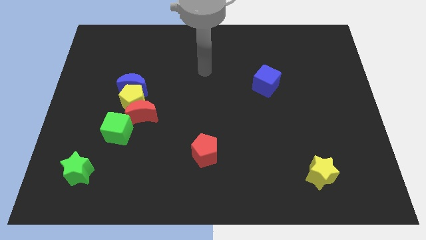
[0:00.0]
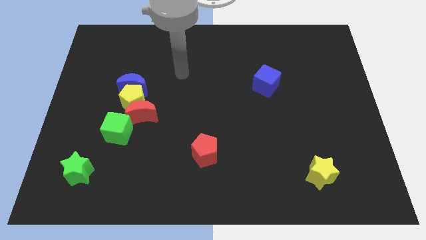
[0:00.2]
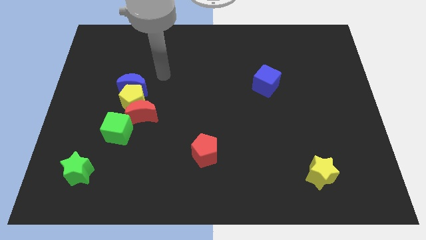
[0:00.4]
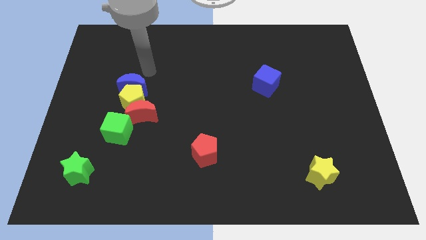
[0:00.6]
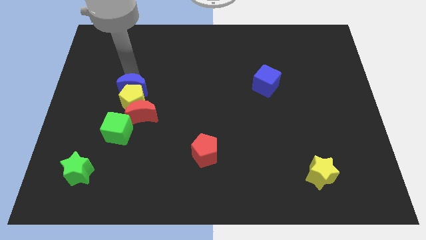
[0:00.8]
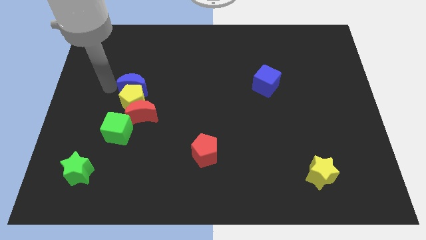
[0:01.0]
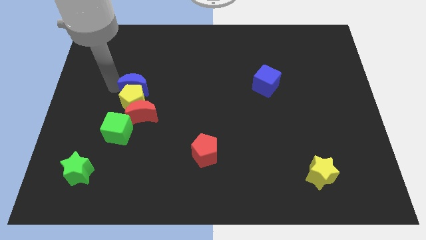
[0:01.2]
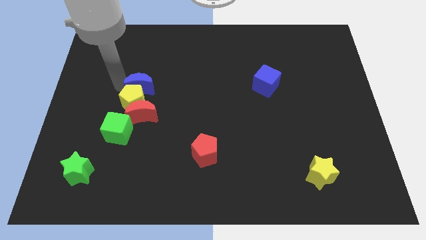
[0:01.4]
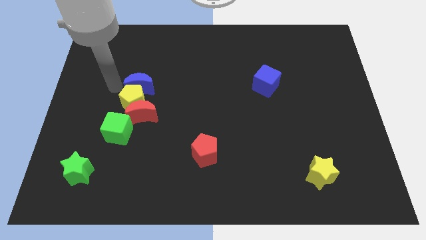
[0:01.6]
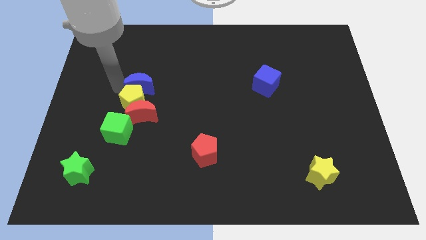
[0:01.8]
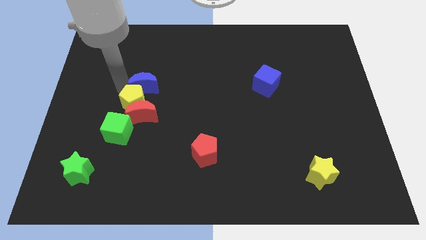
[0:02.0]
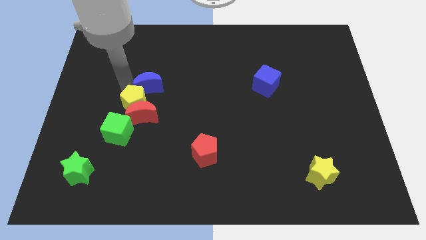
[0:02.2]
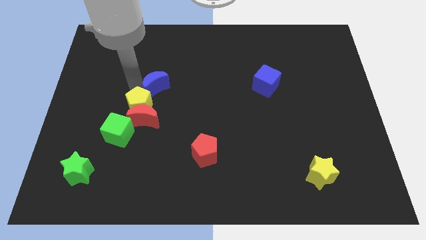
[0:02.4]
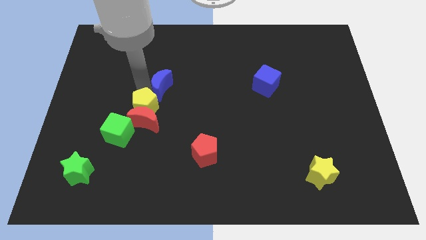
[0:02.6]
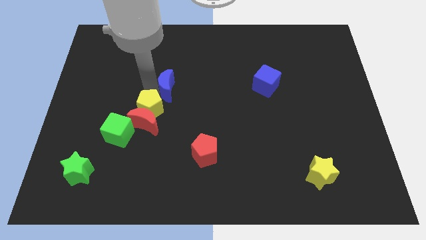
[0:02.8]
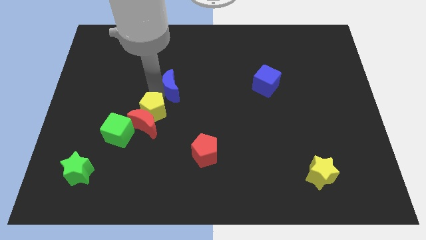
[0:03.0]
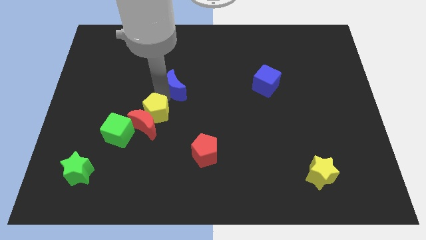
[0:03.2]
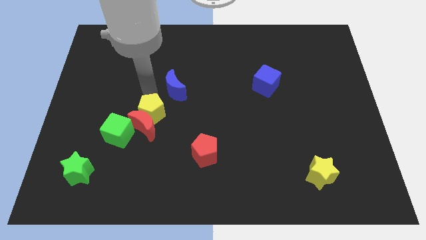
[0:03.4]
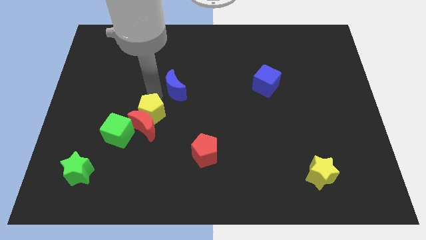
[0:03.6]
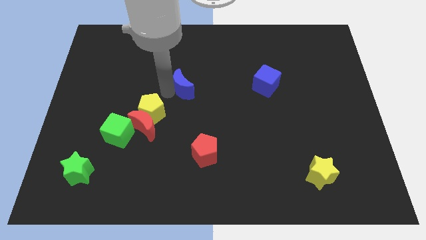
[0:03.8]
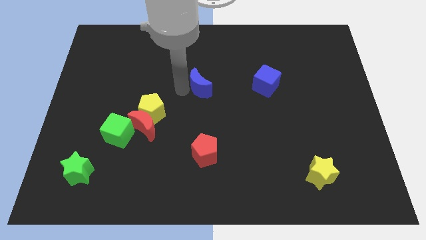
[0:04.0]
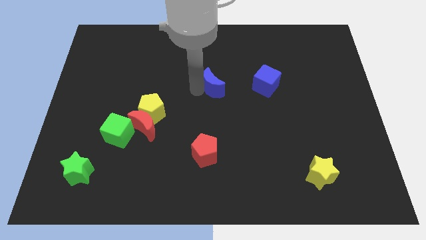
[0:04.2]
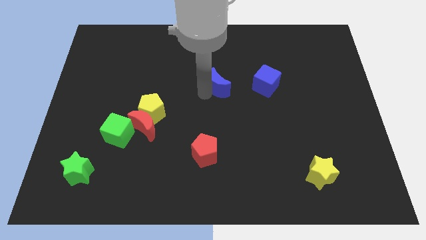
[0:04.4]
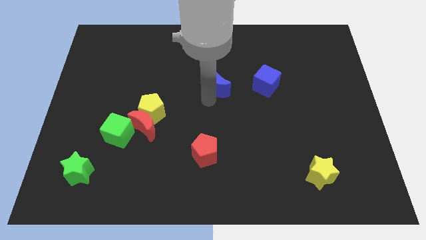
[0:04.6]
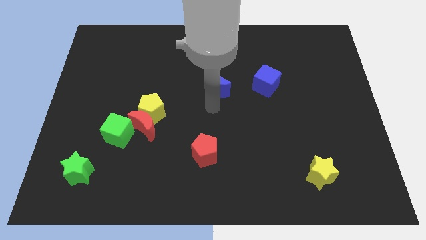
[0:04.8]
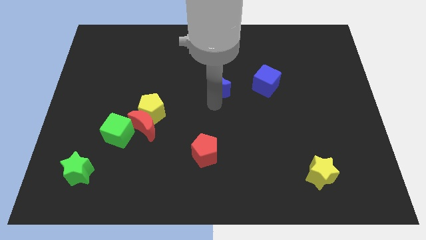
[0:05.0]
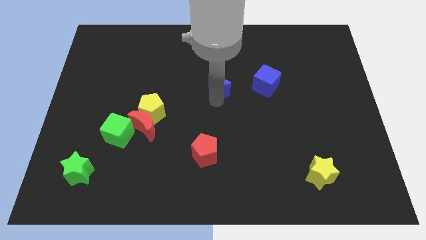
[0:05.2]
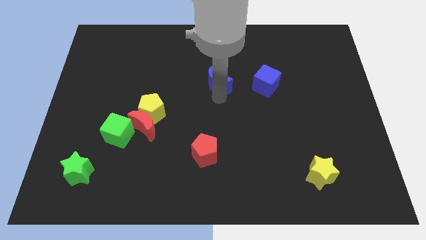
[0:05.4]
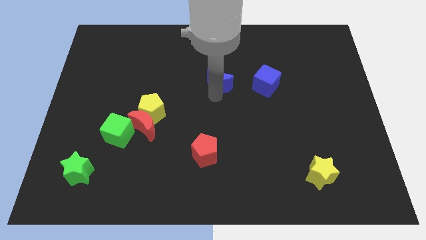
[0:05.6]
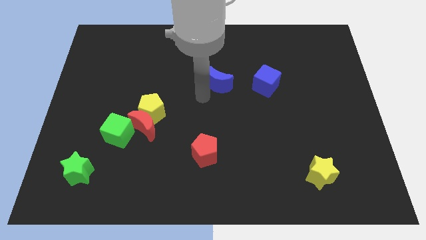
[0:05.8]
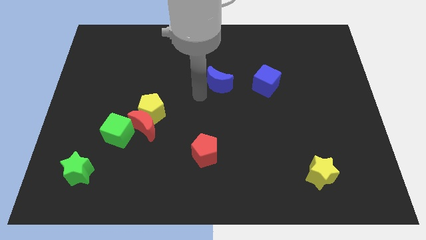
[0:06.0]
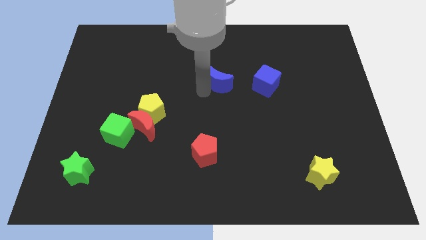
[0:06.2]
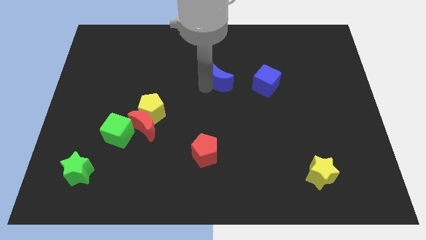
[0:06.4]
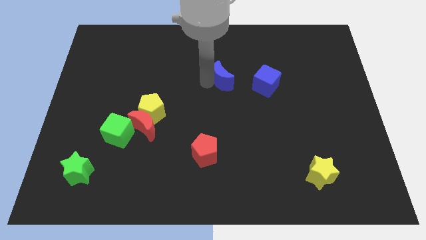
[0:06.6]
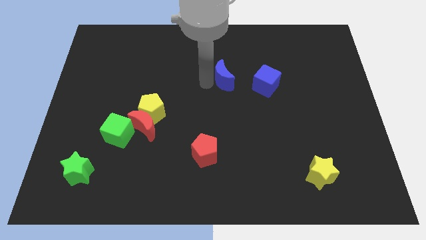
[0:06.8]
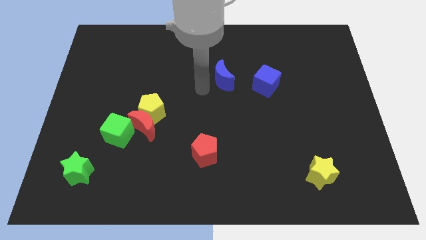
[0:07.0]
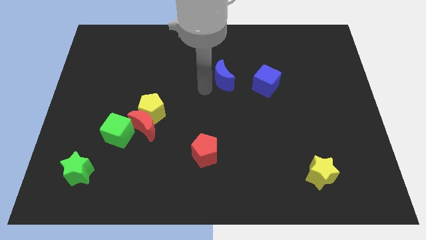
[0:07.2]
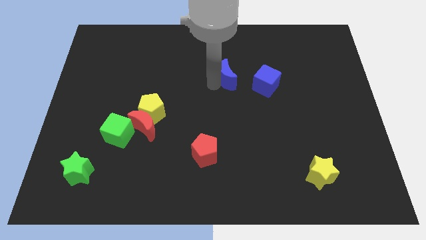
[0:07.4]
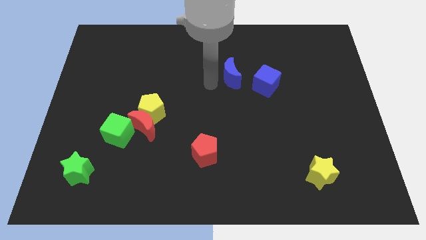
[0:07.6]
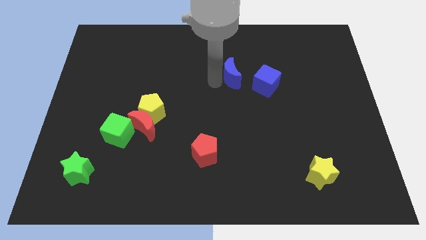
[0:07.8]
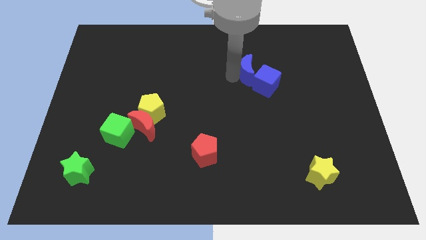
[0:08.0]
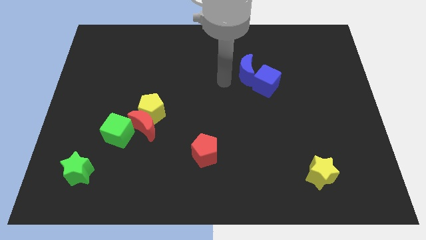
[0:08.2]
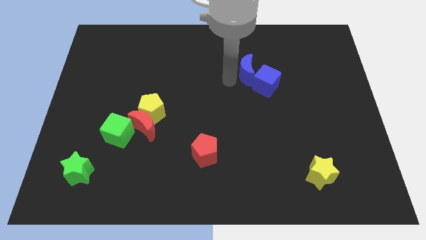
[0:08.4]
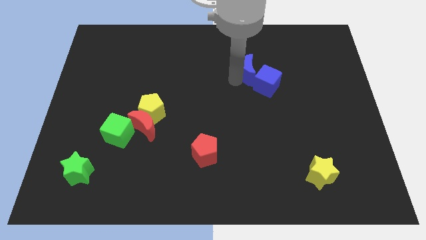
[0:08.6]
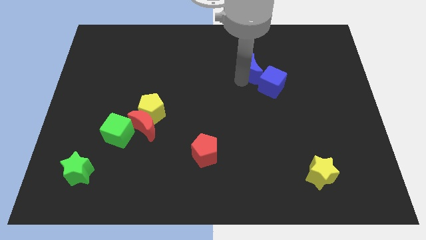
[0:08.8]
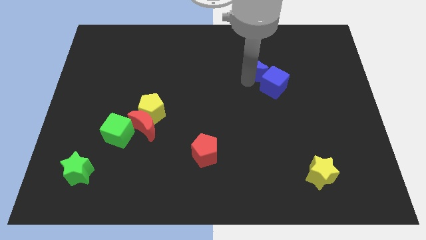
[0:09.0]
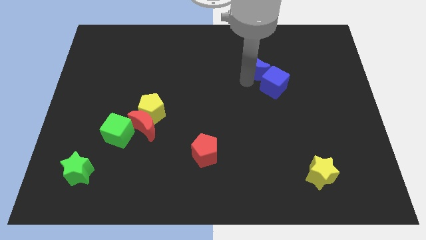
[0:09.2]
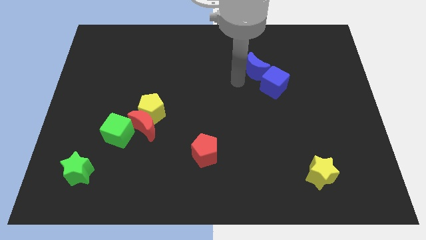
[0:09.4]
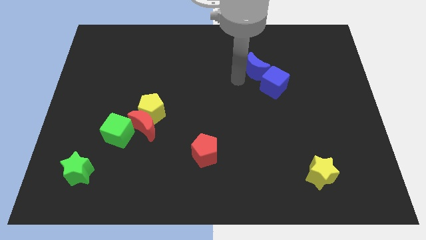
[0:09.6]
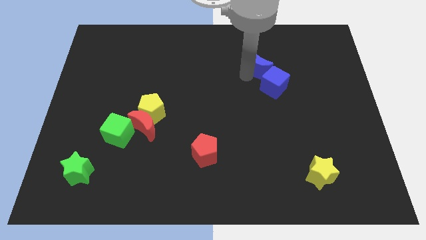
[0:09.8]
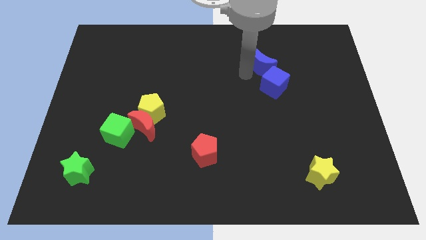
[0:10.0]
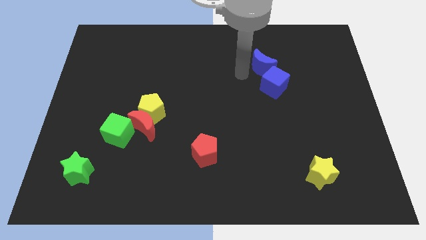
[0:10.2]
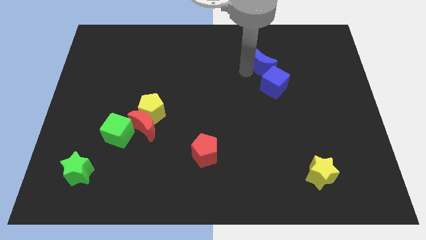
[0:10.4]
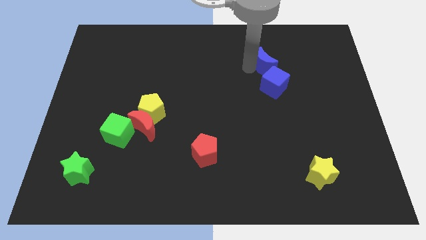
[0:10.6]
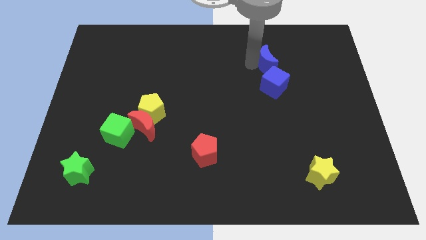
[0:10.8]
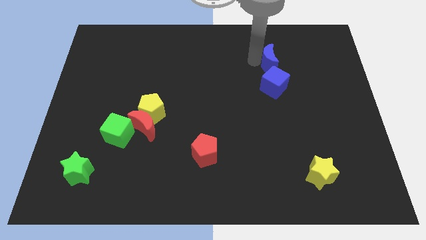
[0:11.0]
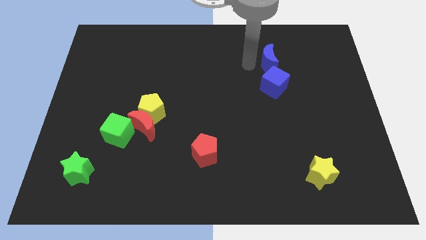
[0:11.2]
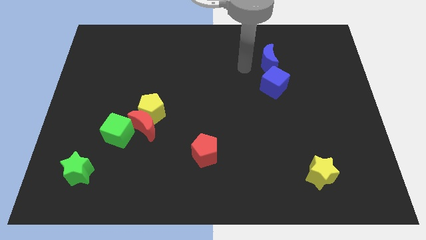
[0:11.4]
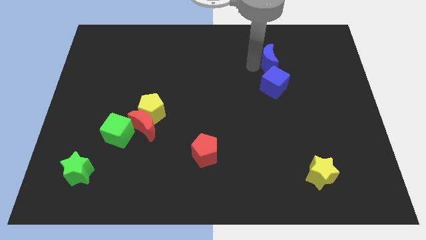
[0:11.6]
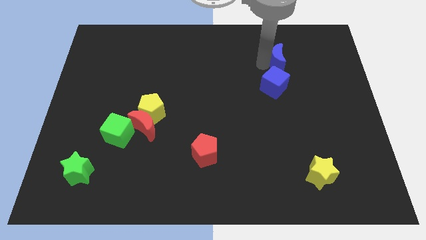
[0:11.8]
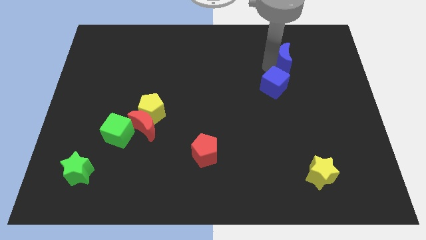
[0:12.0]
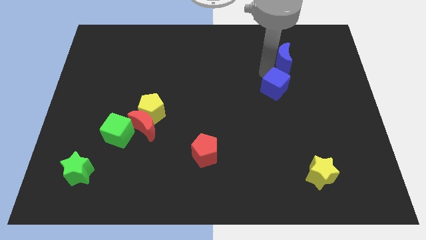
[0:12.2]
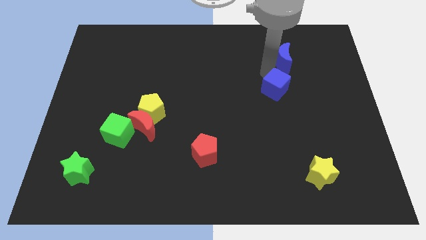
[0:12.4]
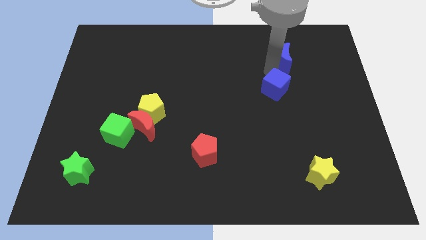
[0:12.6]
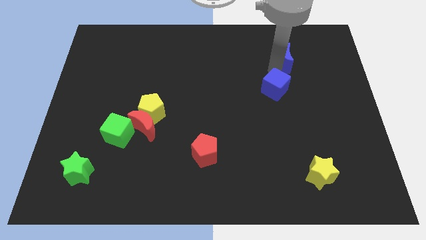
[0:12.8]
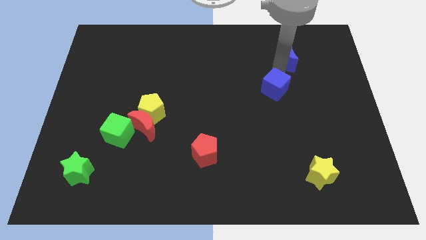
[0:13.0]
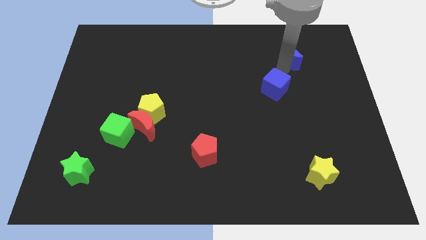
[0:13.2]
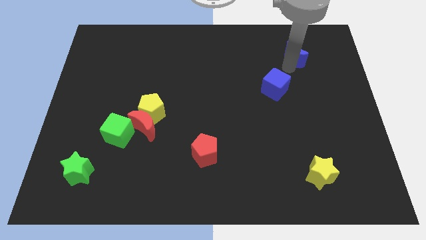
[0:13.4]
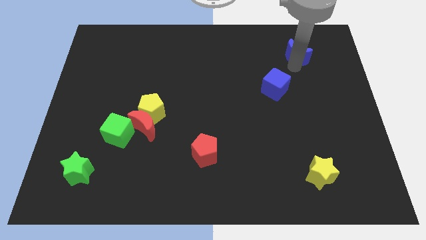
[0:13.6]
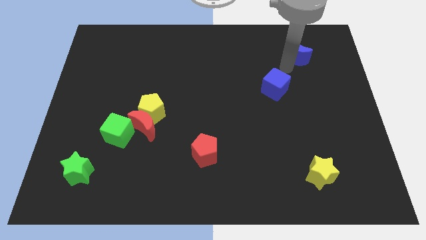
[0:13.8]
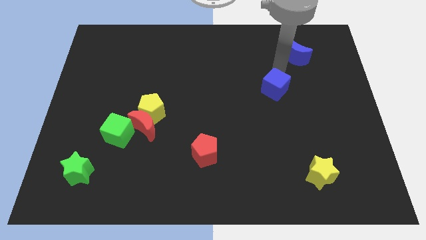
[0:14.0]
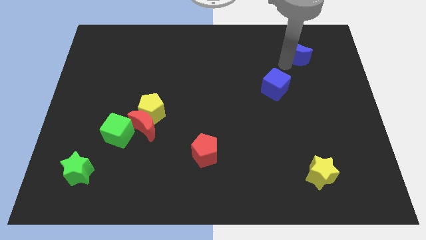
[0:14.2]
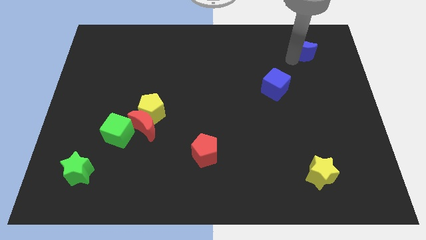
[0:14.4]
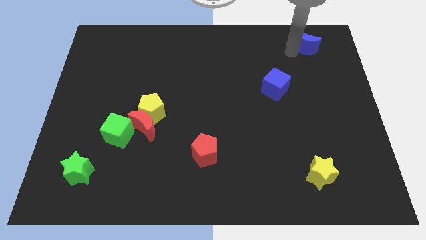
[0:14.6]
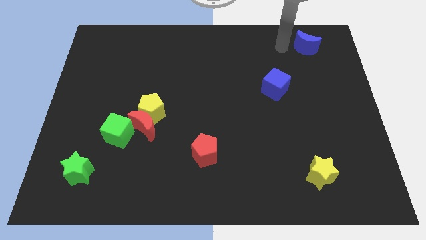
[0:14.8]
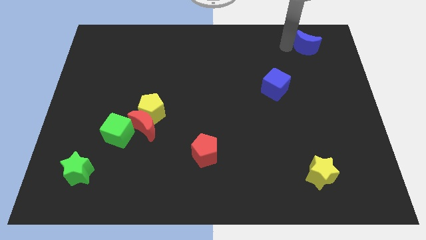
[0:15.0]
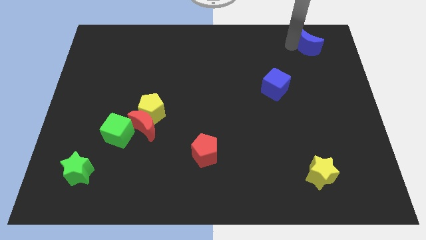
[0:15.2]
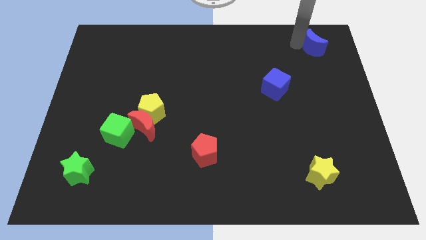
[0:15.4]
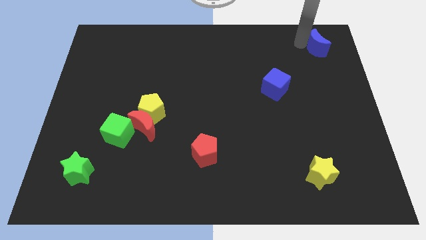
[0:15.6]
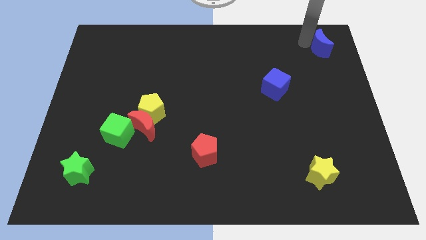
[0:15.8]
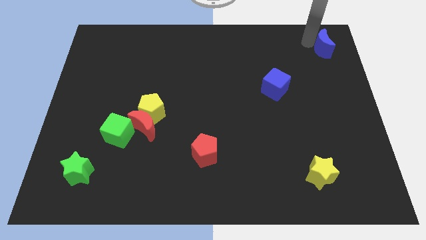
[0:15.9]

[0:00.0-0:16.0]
put the blue moon to the upper right corner
